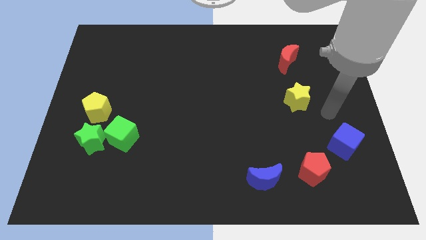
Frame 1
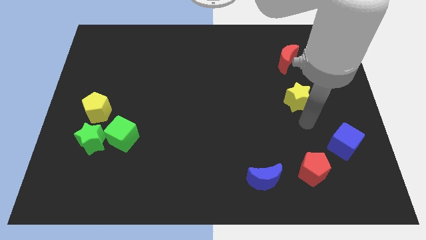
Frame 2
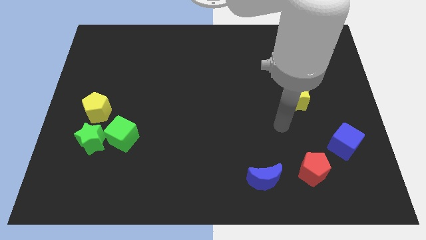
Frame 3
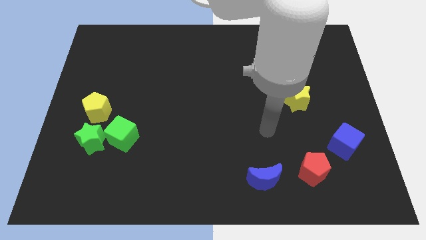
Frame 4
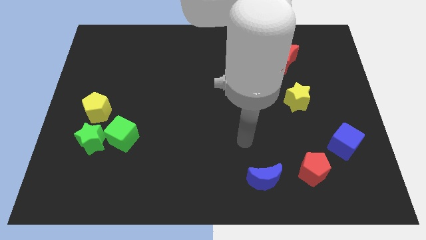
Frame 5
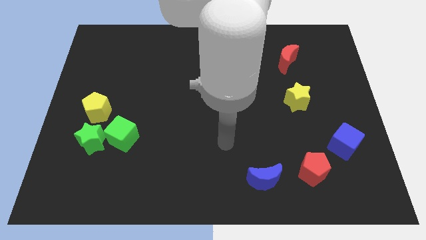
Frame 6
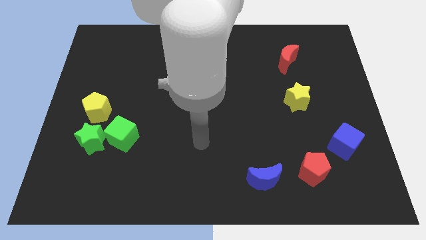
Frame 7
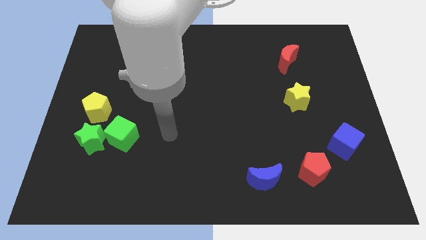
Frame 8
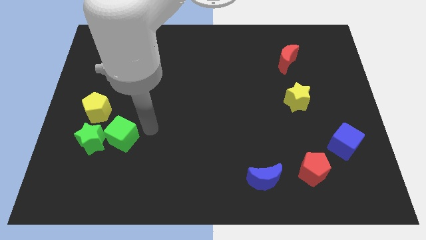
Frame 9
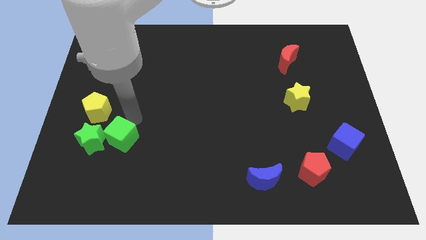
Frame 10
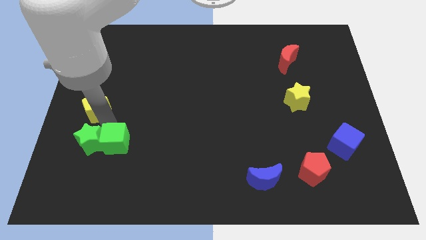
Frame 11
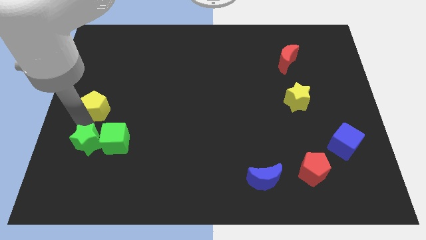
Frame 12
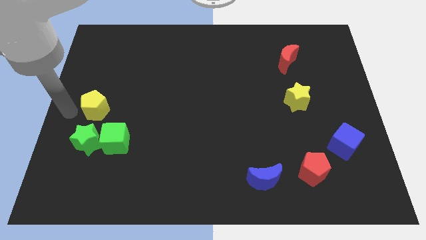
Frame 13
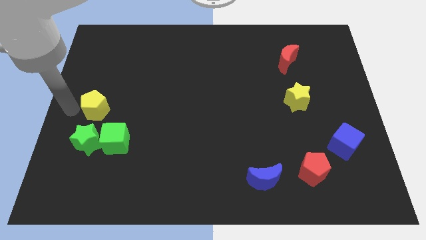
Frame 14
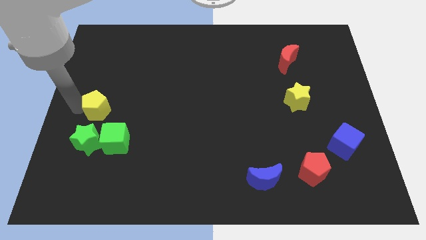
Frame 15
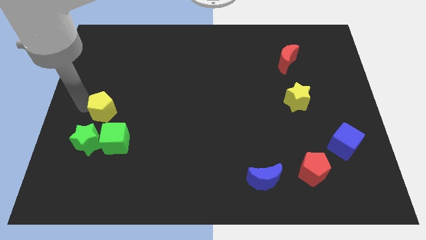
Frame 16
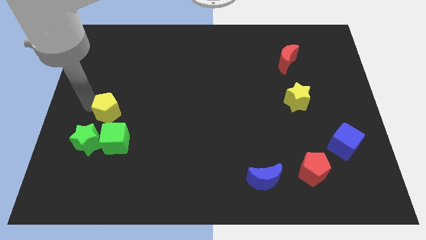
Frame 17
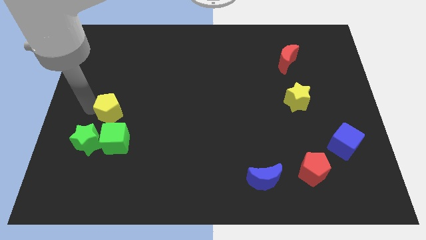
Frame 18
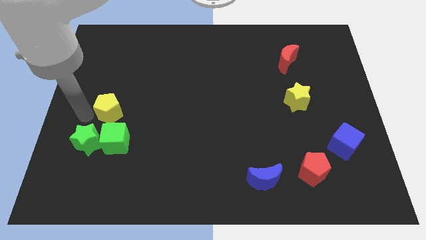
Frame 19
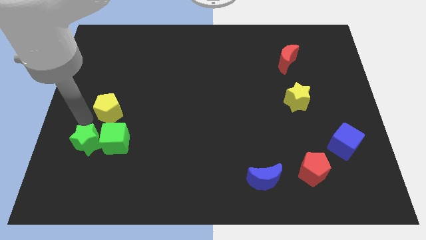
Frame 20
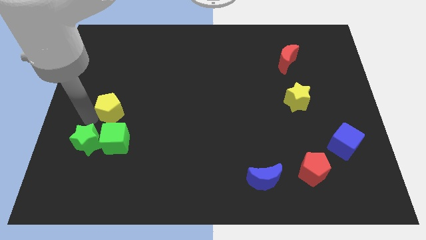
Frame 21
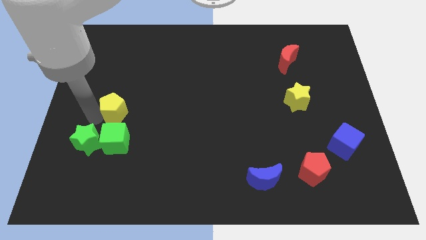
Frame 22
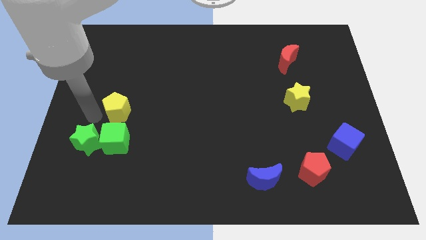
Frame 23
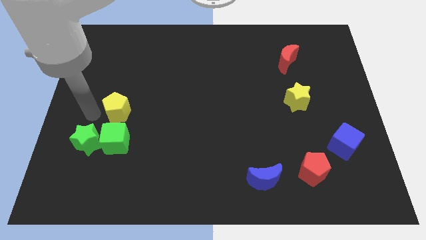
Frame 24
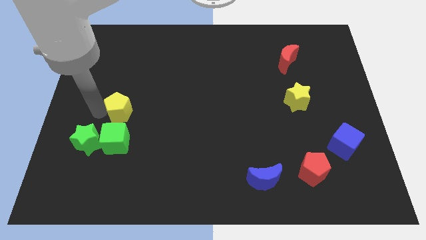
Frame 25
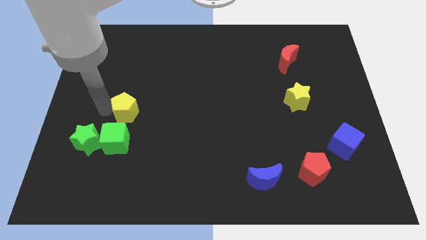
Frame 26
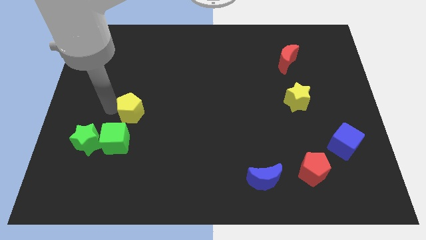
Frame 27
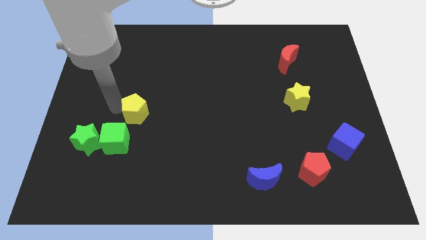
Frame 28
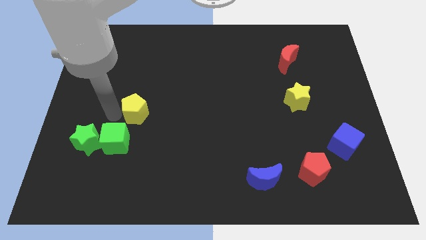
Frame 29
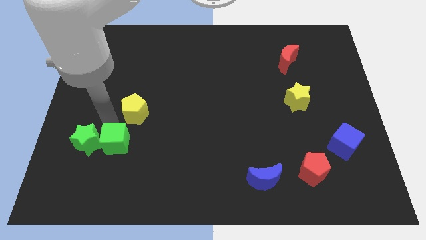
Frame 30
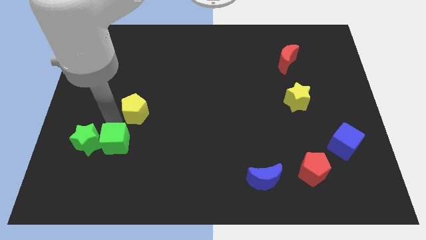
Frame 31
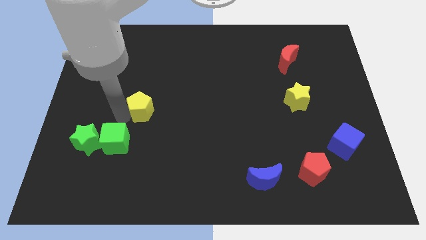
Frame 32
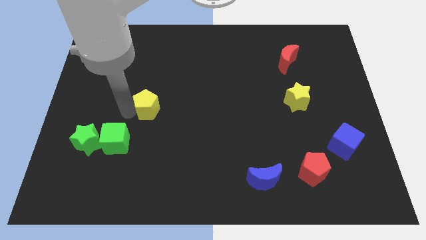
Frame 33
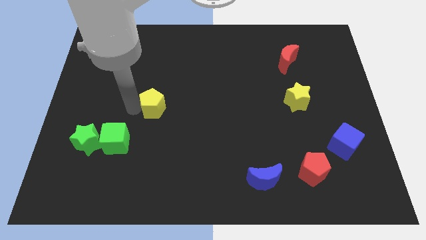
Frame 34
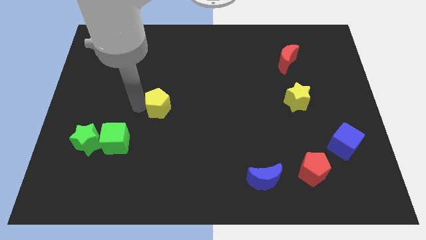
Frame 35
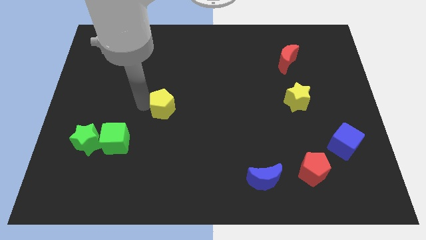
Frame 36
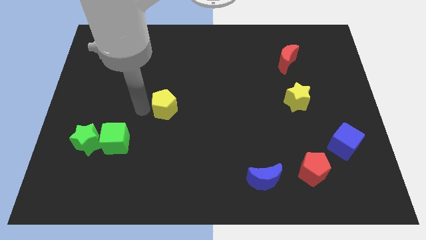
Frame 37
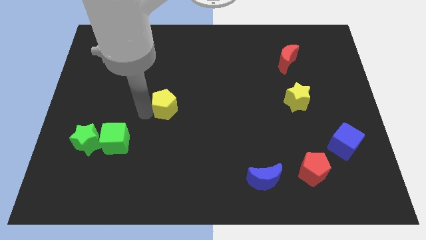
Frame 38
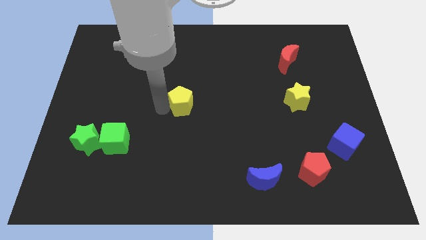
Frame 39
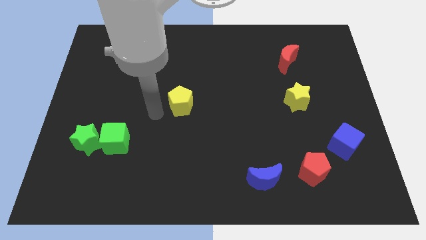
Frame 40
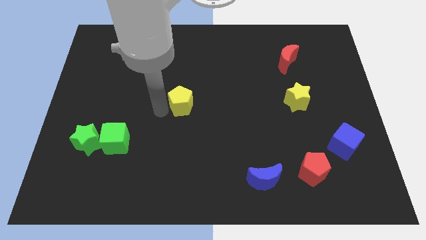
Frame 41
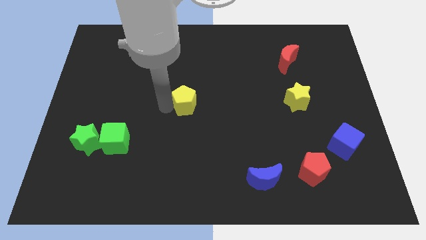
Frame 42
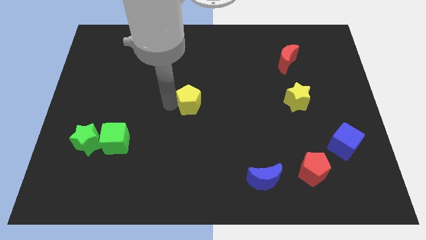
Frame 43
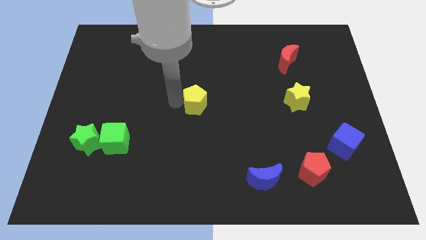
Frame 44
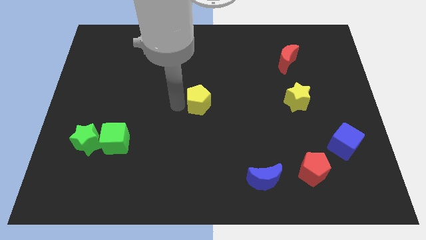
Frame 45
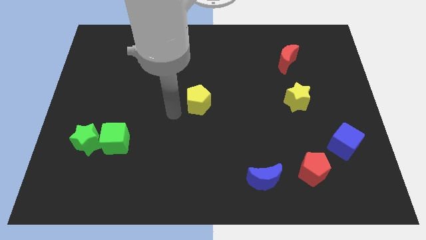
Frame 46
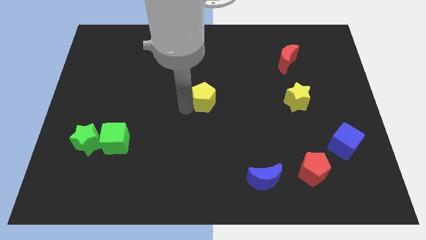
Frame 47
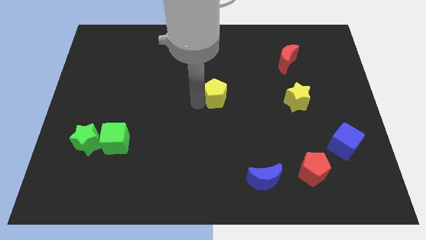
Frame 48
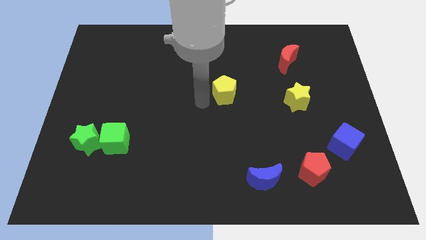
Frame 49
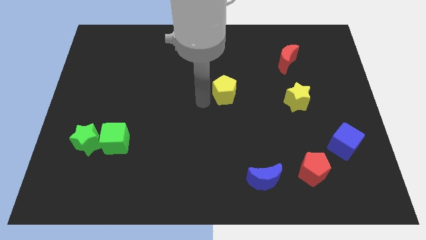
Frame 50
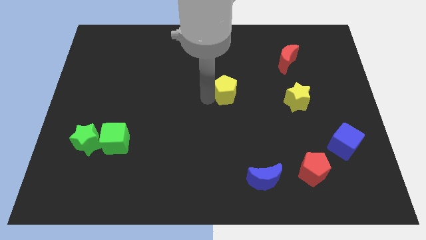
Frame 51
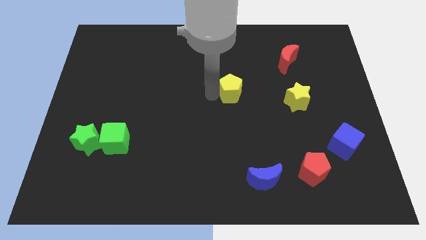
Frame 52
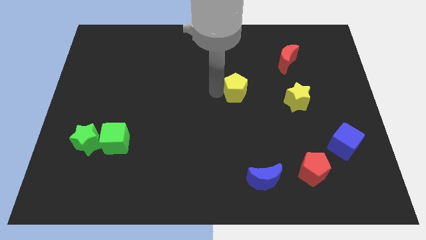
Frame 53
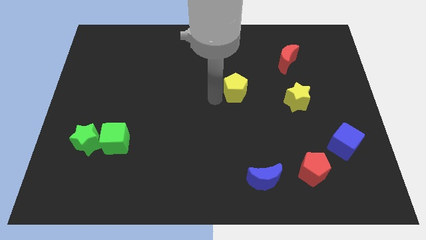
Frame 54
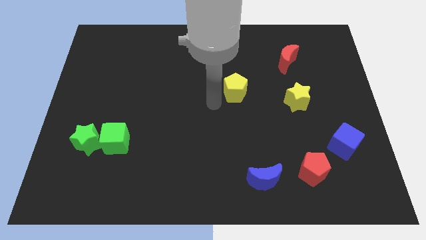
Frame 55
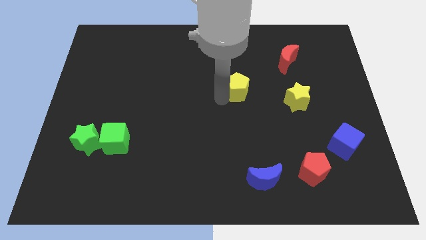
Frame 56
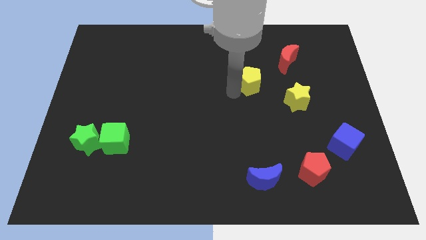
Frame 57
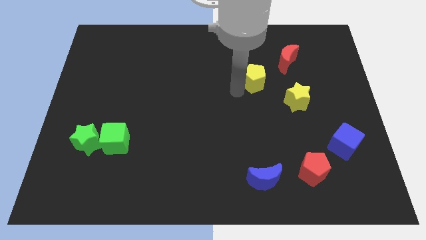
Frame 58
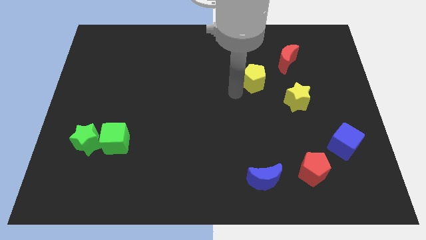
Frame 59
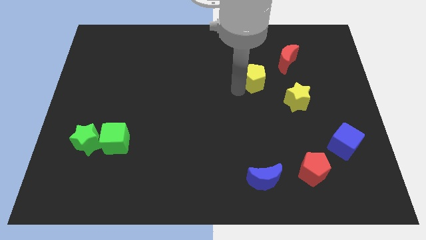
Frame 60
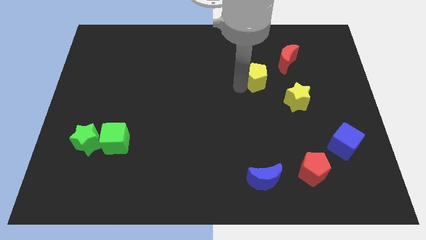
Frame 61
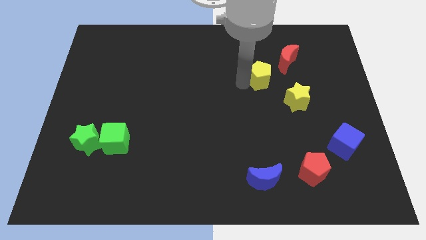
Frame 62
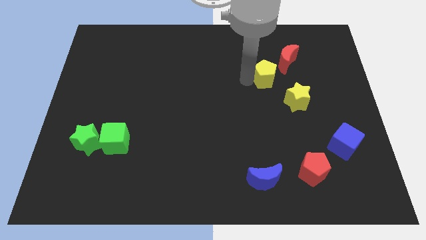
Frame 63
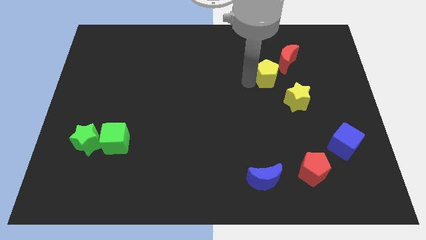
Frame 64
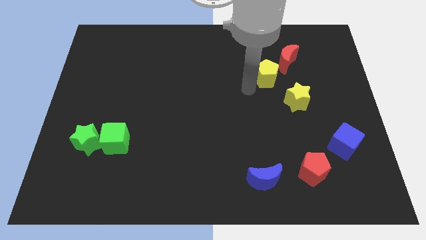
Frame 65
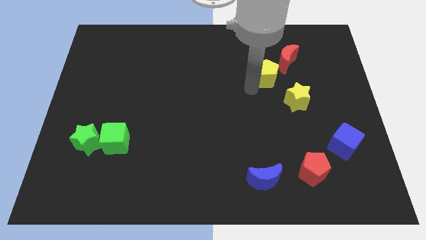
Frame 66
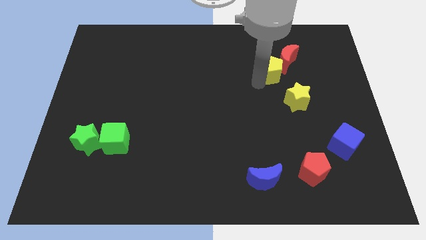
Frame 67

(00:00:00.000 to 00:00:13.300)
slide the yellow pentagon next to the red moon

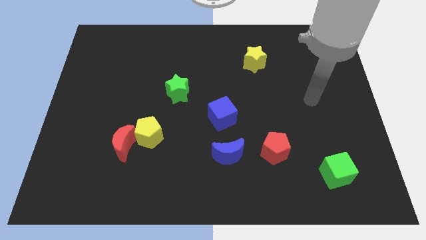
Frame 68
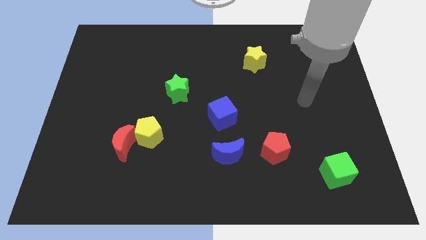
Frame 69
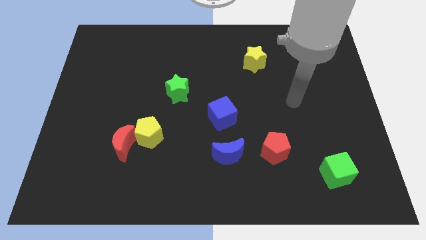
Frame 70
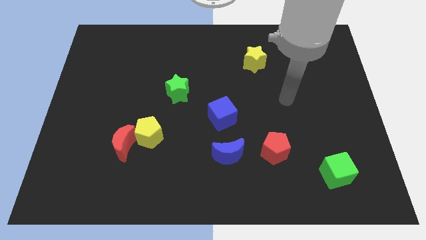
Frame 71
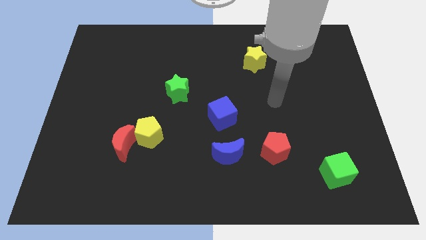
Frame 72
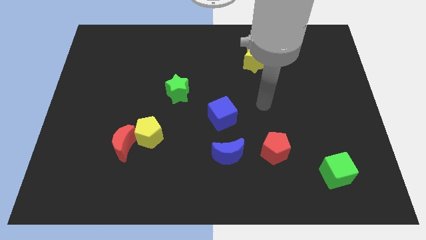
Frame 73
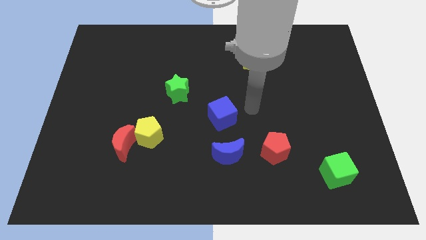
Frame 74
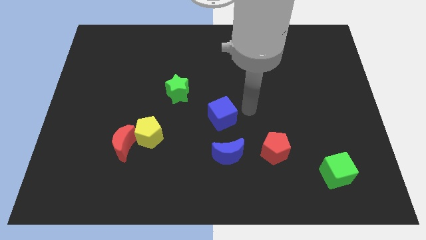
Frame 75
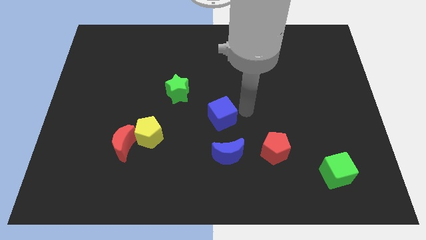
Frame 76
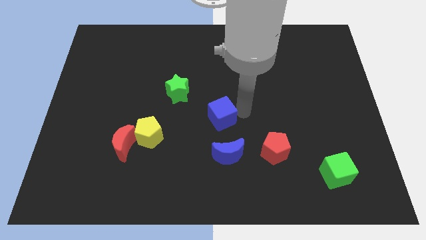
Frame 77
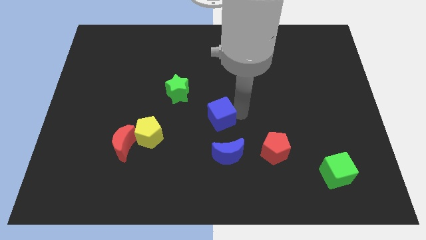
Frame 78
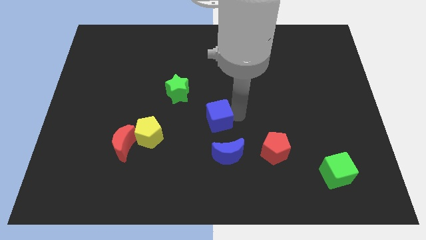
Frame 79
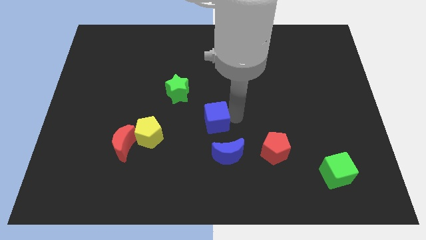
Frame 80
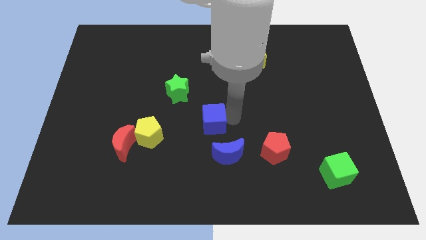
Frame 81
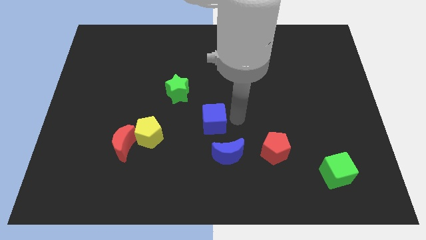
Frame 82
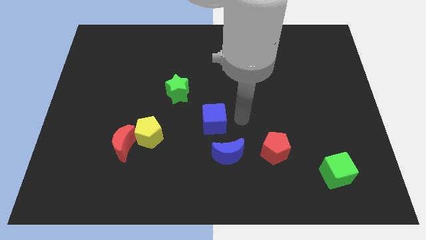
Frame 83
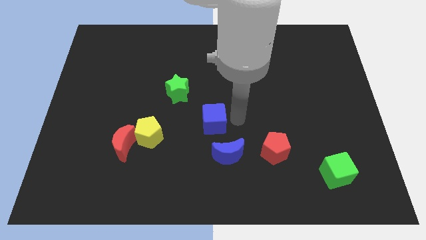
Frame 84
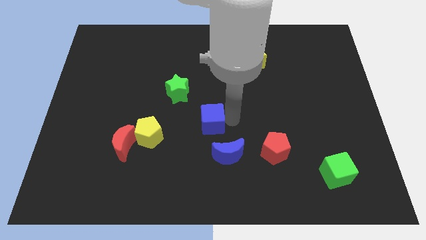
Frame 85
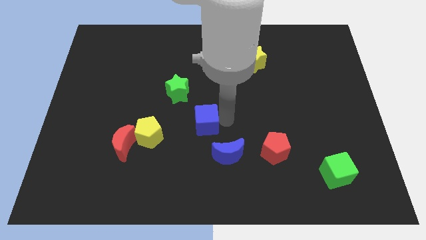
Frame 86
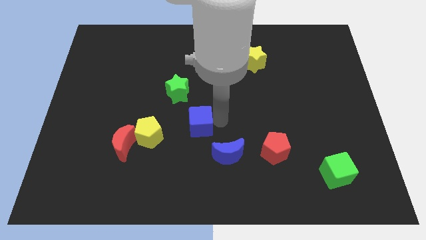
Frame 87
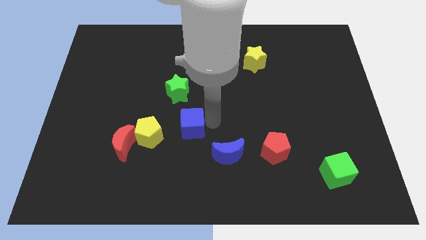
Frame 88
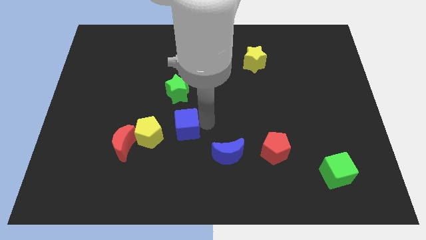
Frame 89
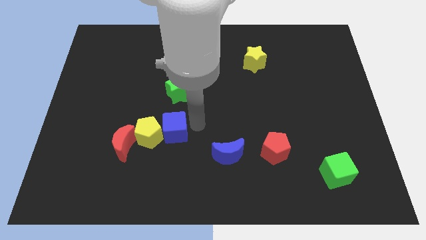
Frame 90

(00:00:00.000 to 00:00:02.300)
move the blue cube towards the yellow pentagon
